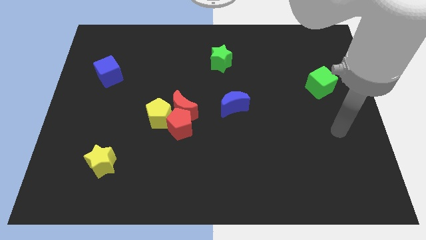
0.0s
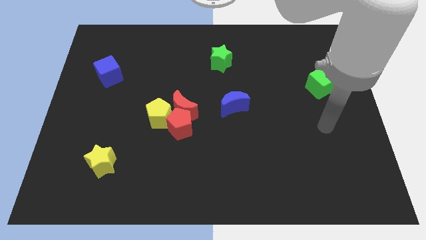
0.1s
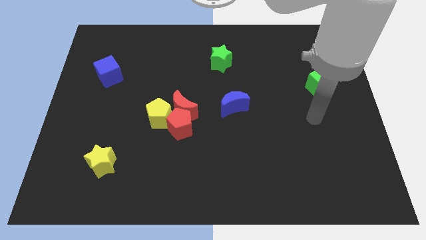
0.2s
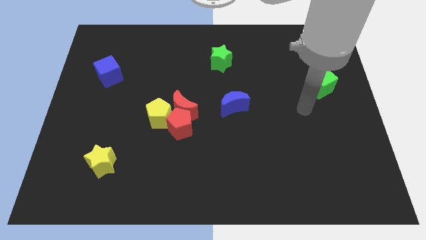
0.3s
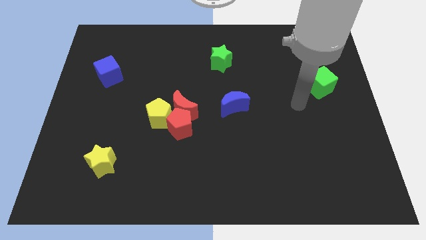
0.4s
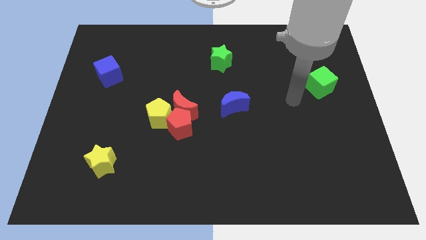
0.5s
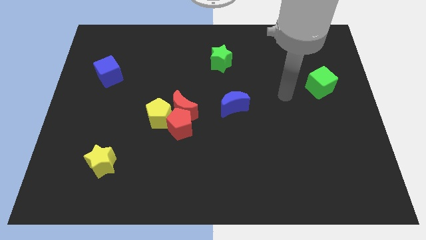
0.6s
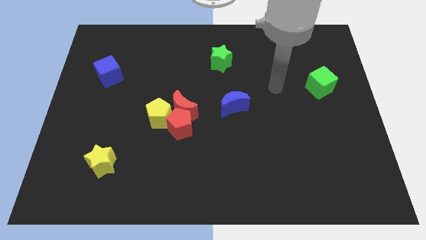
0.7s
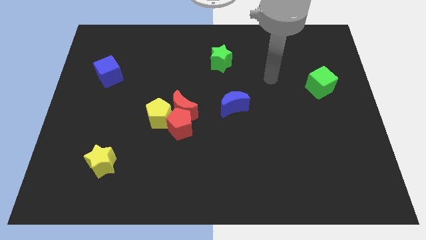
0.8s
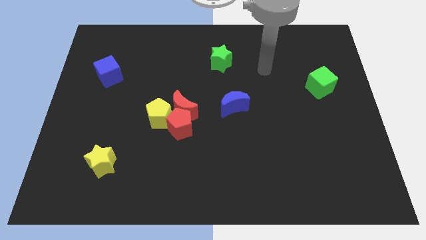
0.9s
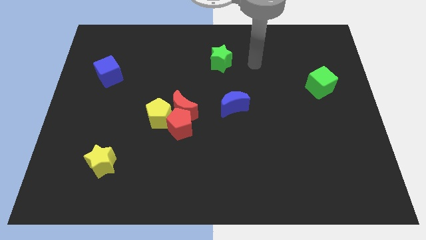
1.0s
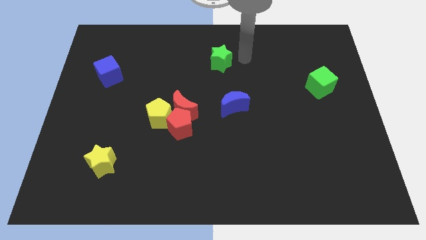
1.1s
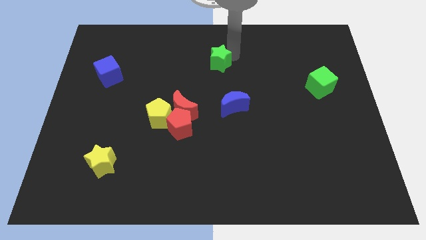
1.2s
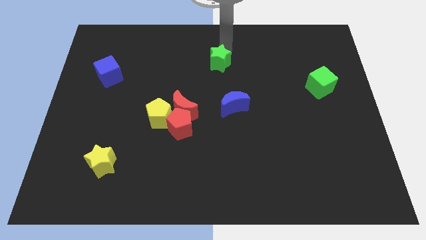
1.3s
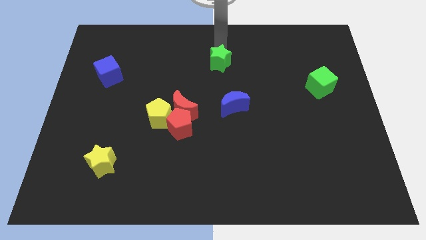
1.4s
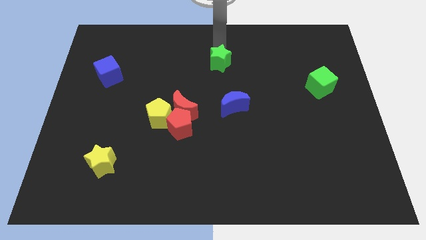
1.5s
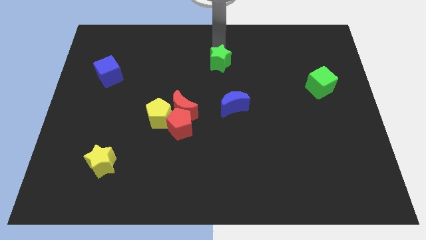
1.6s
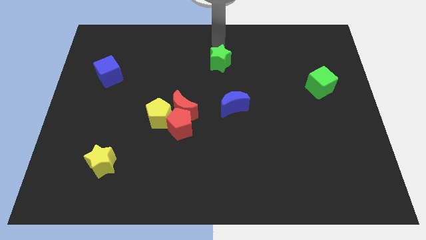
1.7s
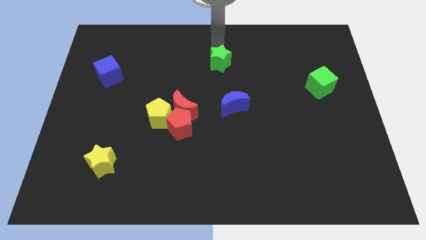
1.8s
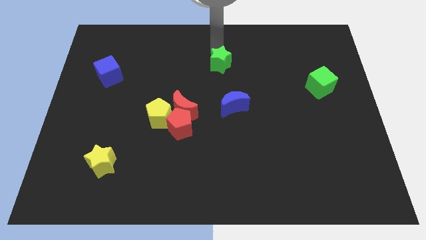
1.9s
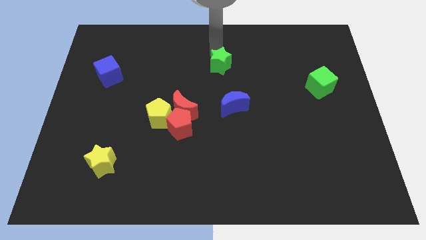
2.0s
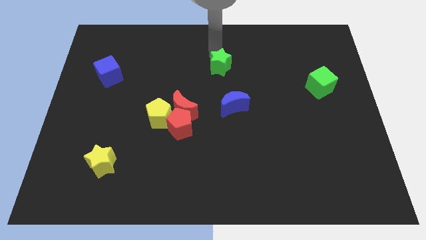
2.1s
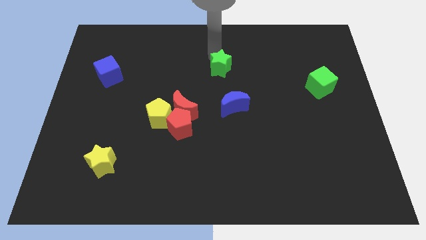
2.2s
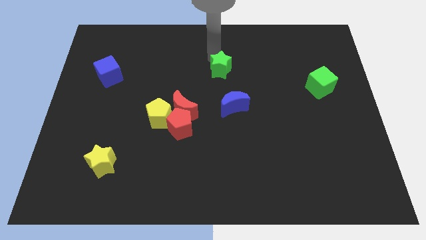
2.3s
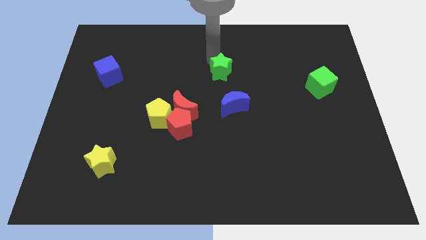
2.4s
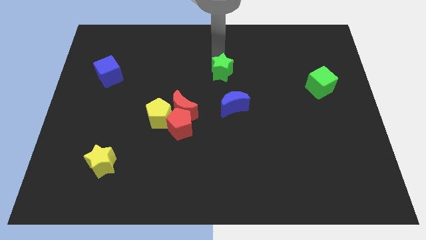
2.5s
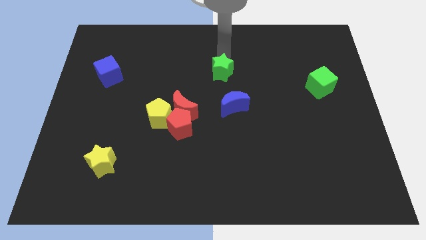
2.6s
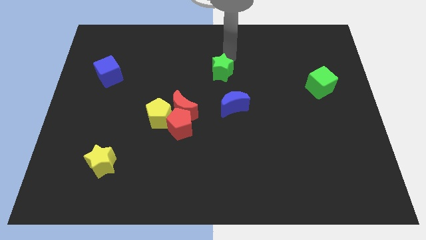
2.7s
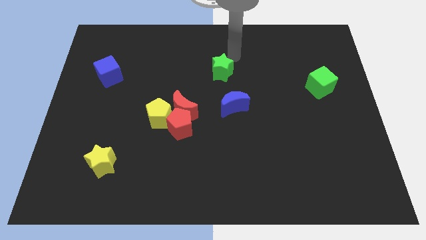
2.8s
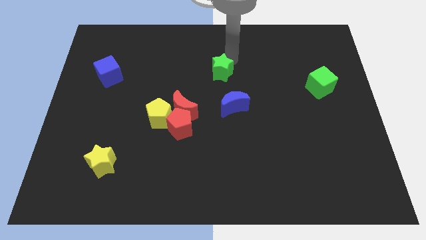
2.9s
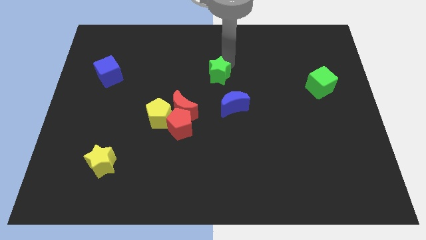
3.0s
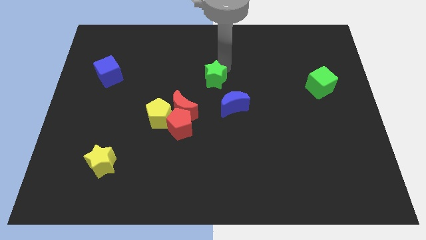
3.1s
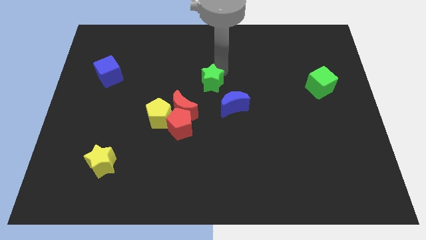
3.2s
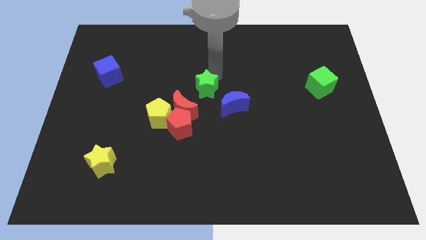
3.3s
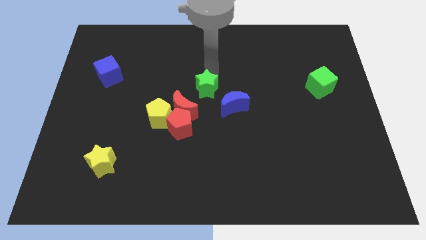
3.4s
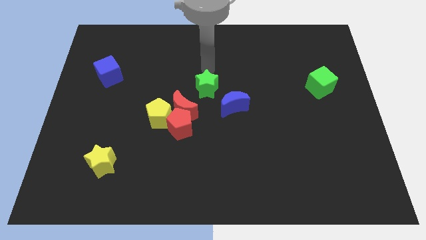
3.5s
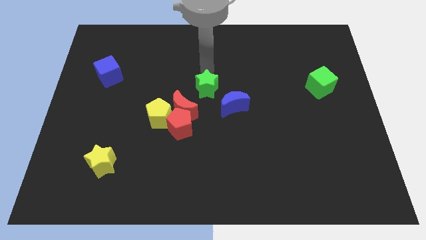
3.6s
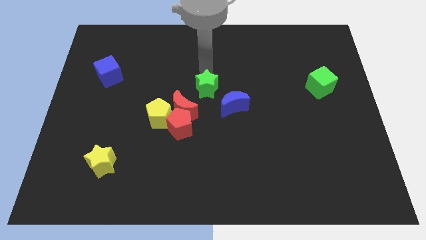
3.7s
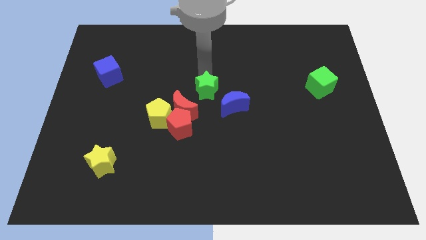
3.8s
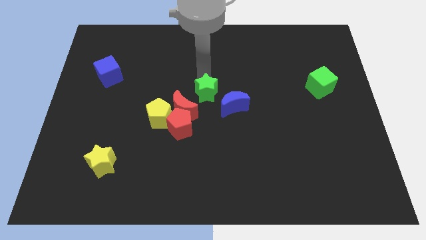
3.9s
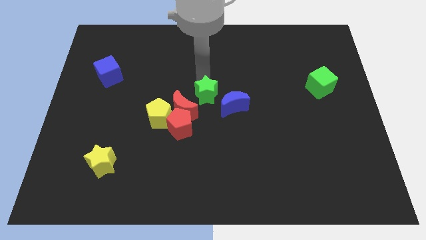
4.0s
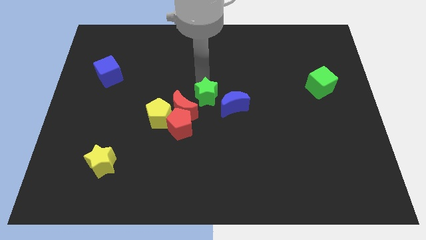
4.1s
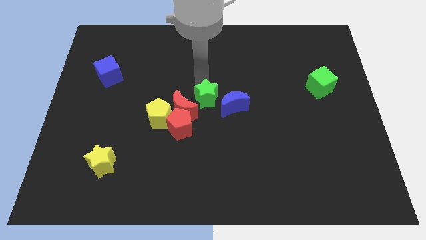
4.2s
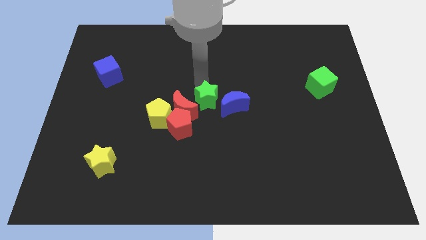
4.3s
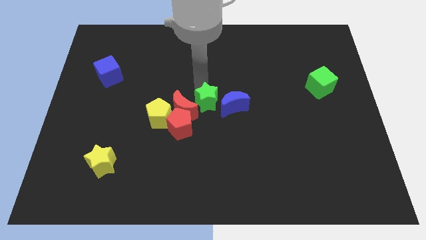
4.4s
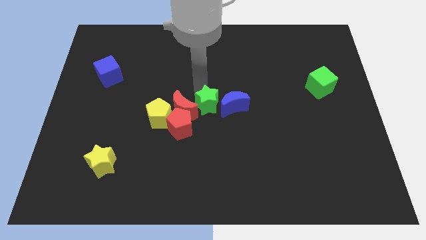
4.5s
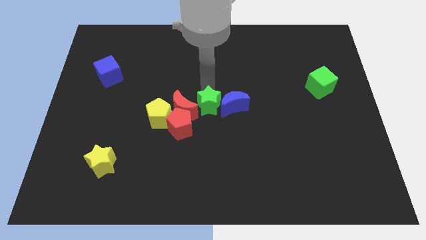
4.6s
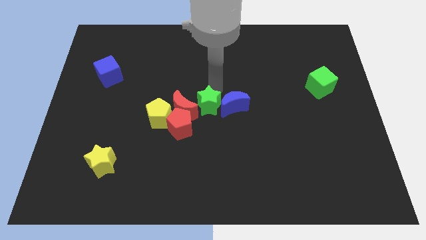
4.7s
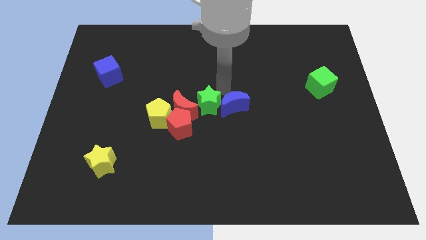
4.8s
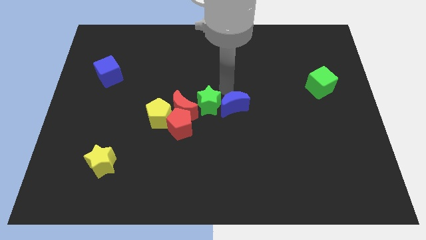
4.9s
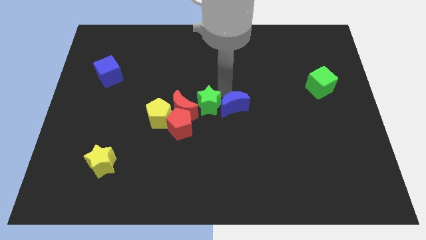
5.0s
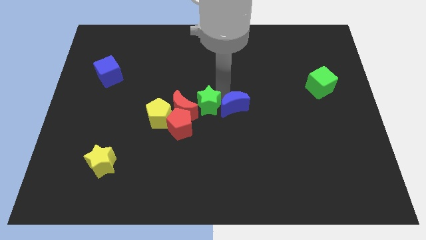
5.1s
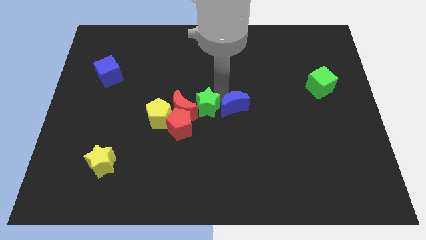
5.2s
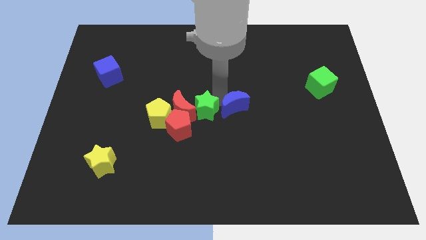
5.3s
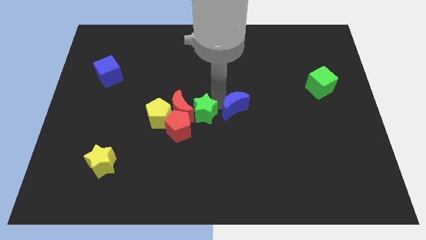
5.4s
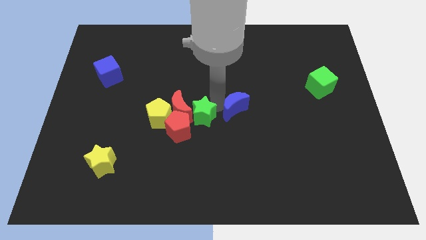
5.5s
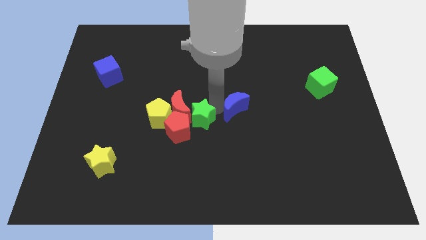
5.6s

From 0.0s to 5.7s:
slide the green star to the red pentagon

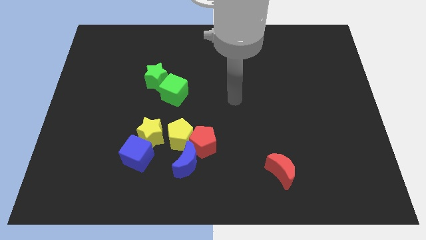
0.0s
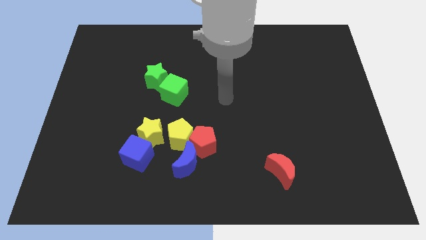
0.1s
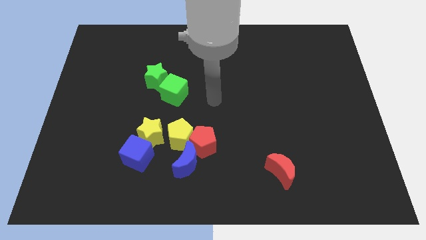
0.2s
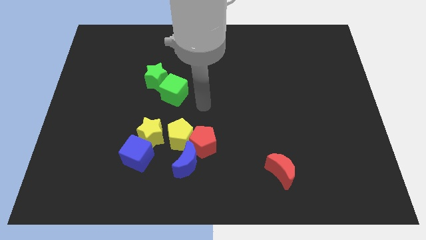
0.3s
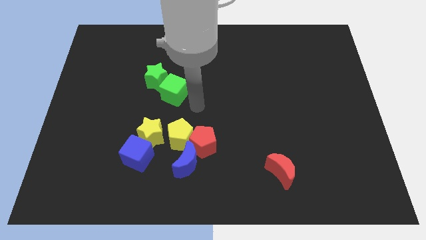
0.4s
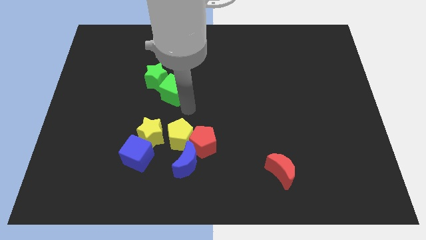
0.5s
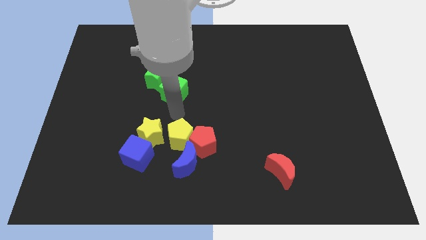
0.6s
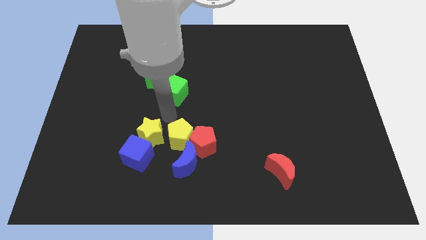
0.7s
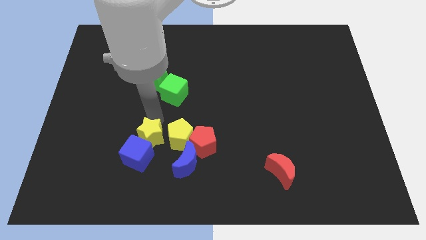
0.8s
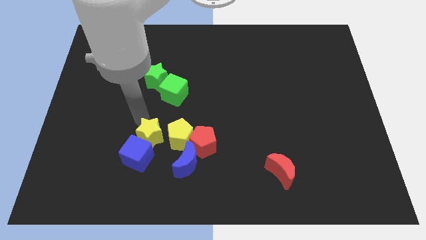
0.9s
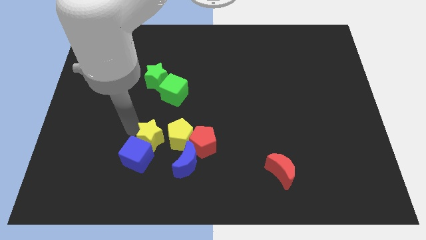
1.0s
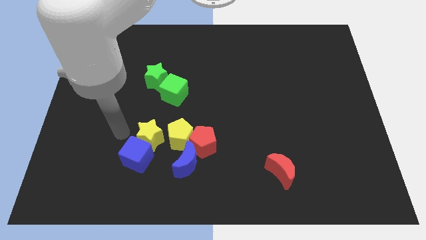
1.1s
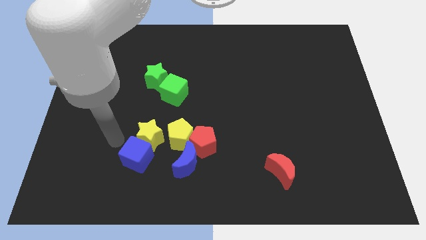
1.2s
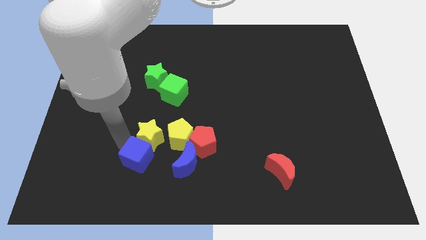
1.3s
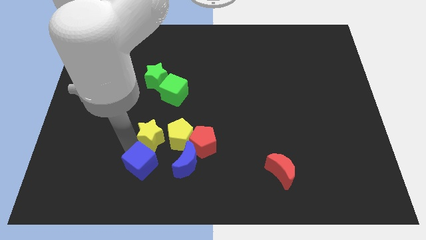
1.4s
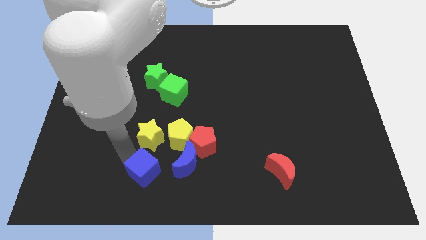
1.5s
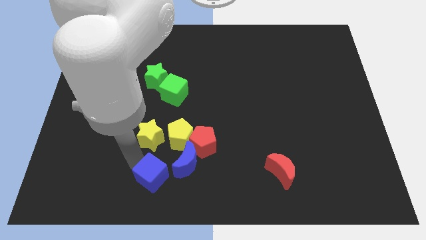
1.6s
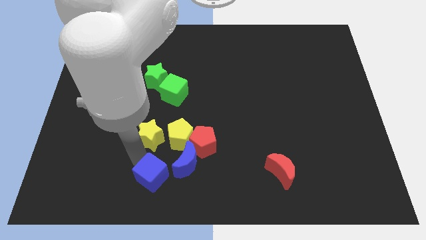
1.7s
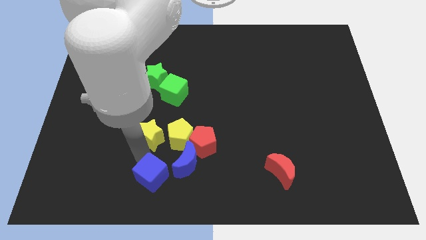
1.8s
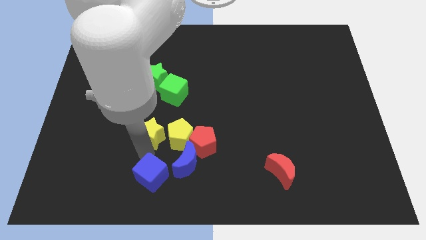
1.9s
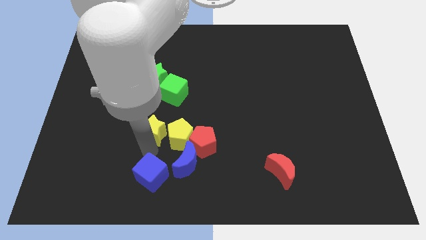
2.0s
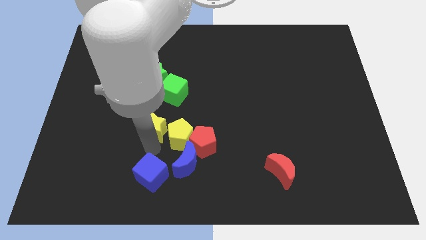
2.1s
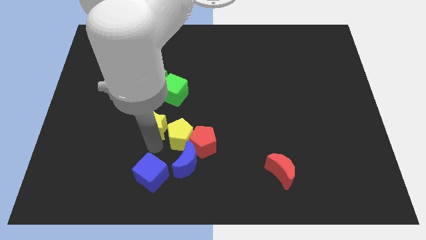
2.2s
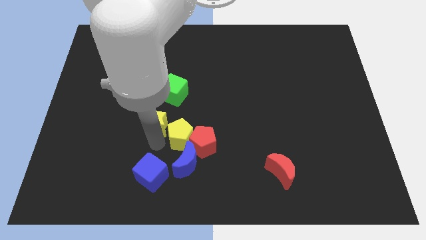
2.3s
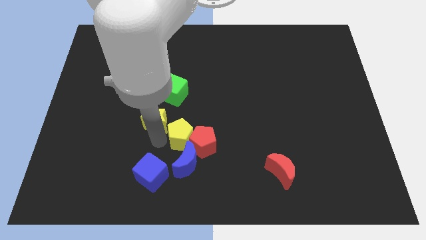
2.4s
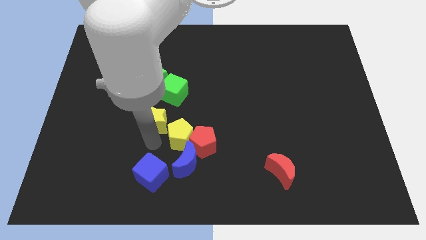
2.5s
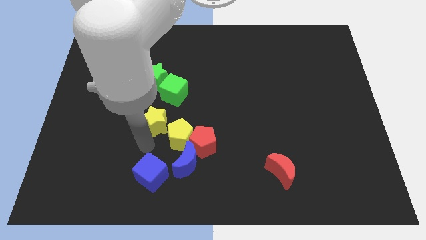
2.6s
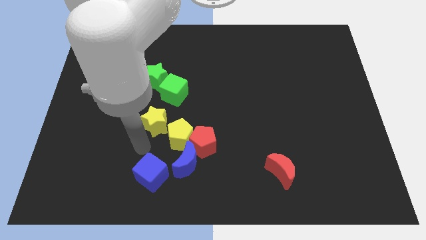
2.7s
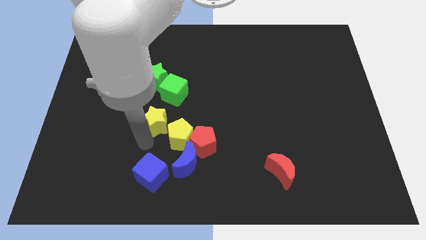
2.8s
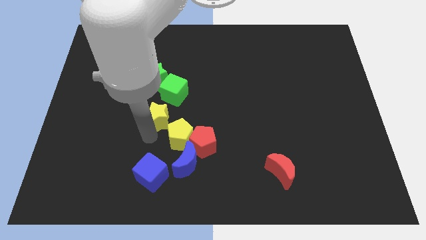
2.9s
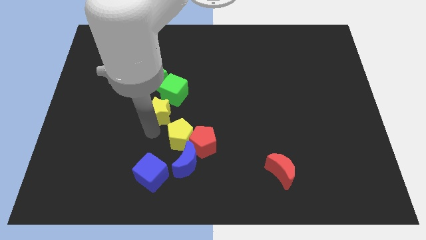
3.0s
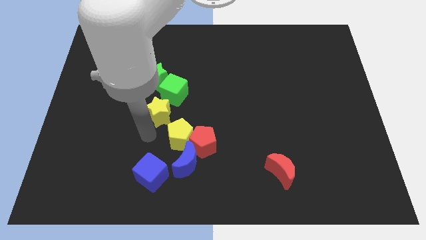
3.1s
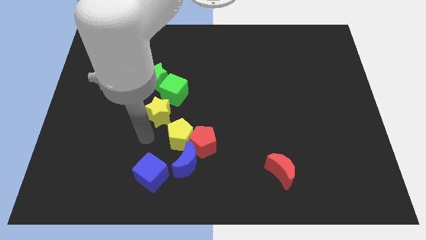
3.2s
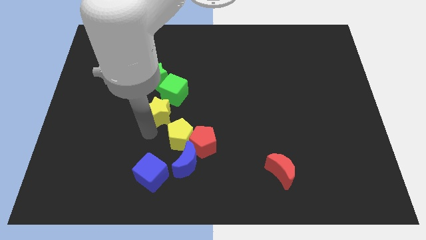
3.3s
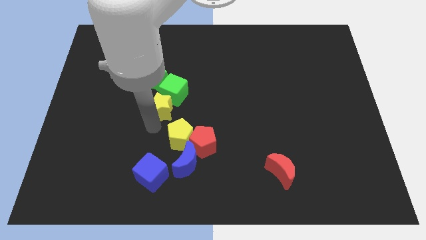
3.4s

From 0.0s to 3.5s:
slide the yellow star towards the green cube
